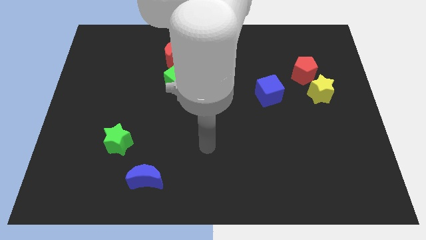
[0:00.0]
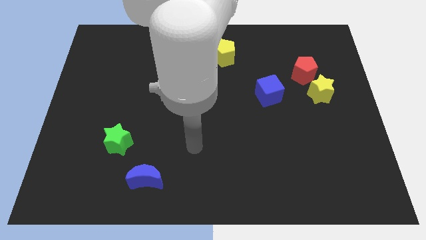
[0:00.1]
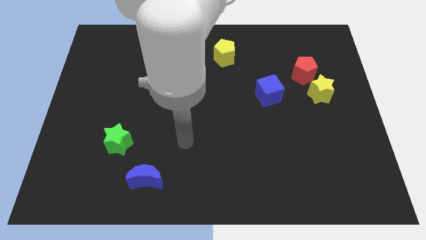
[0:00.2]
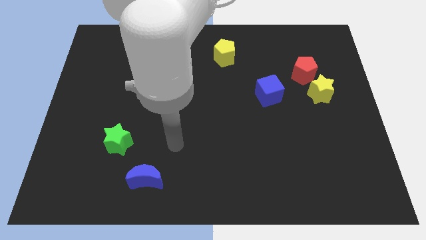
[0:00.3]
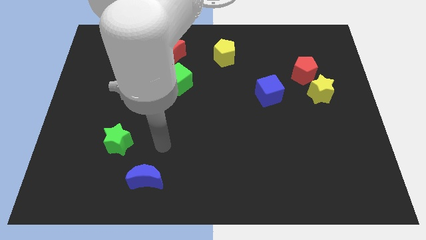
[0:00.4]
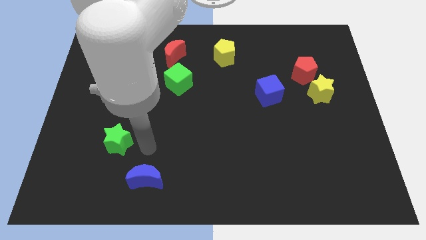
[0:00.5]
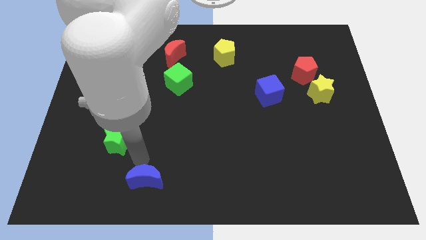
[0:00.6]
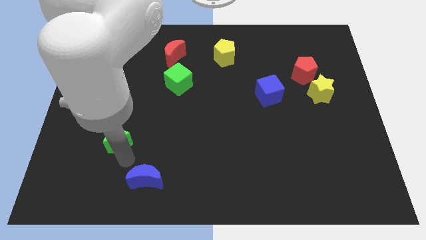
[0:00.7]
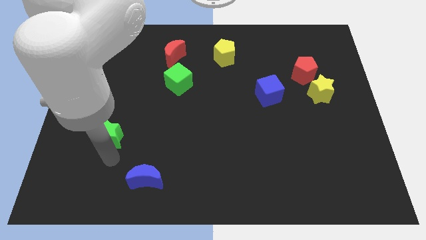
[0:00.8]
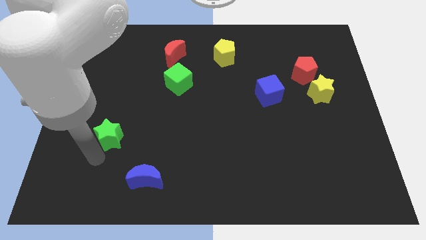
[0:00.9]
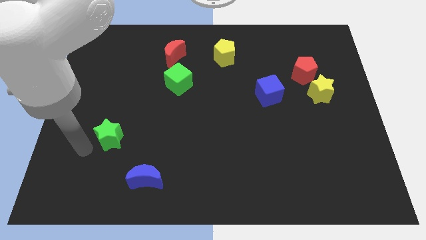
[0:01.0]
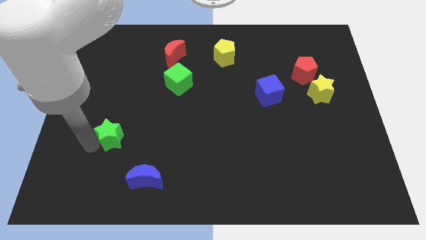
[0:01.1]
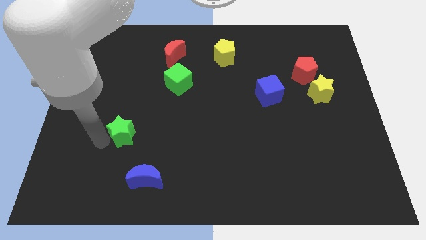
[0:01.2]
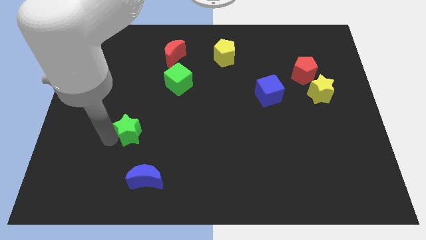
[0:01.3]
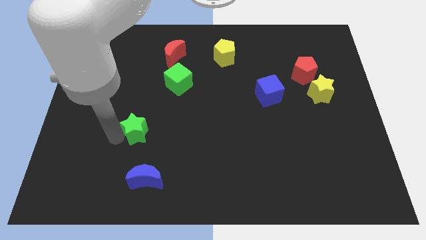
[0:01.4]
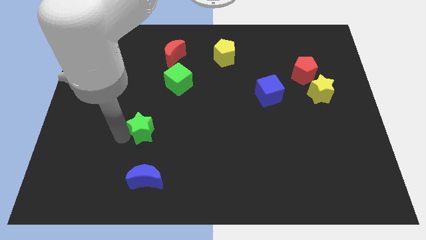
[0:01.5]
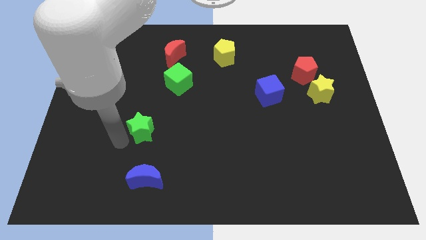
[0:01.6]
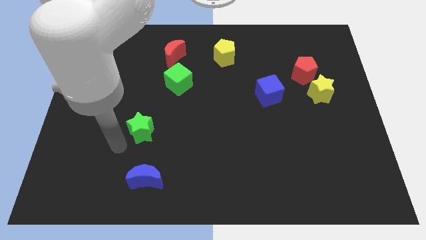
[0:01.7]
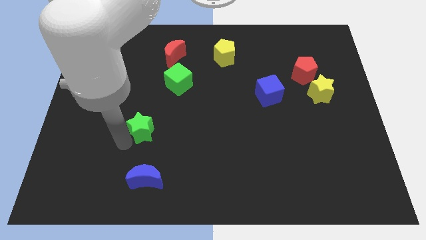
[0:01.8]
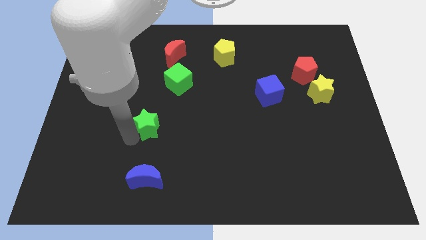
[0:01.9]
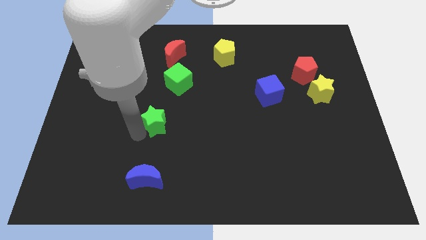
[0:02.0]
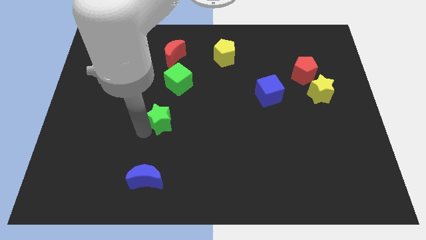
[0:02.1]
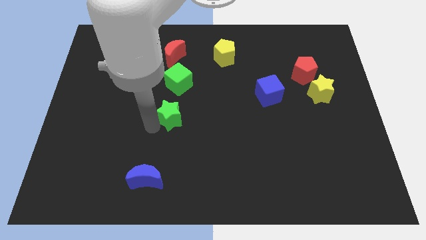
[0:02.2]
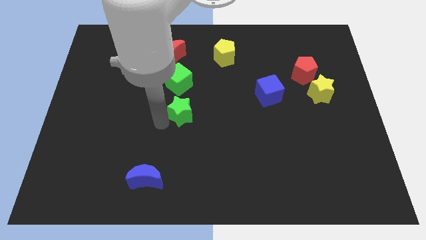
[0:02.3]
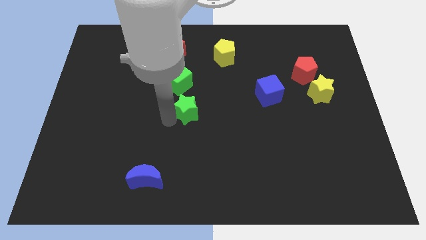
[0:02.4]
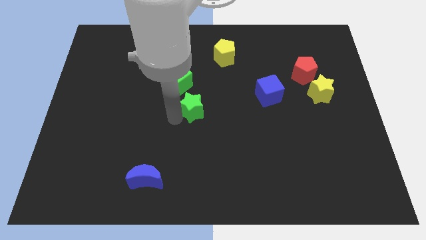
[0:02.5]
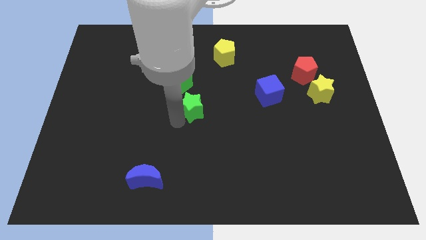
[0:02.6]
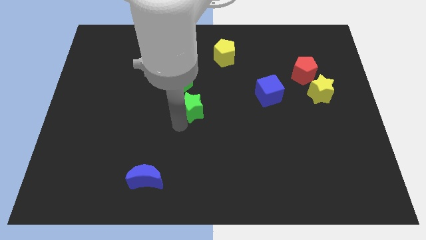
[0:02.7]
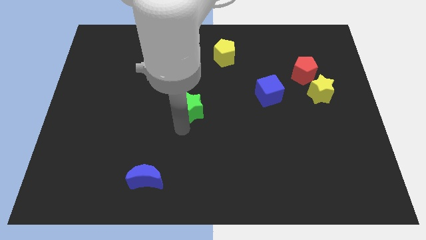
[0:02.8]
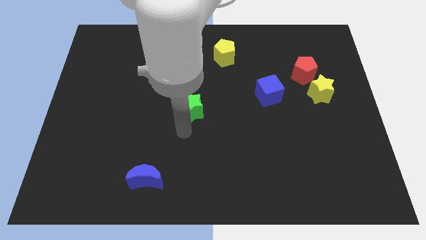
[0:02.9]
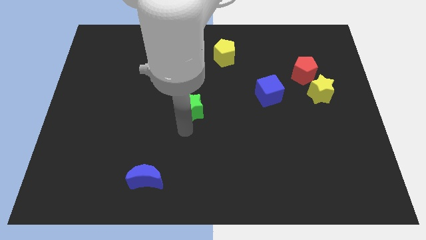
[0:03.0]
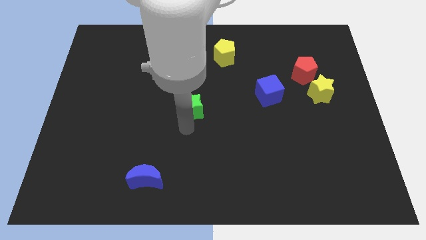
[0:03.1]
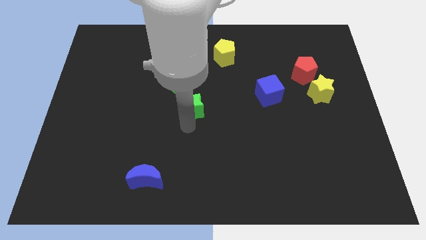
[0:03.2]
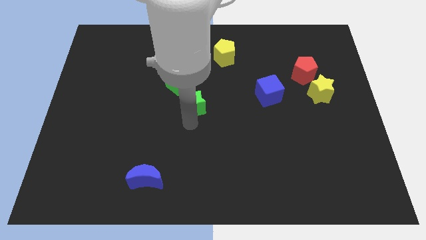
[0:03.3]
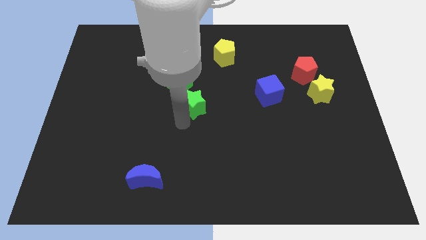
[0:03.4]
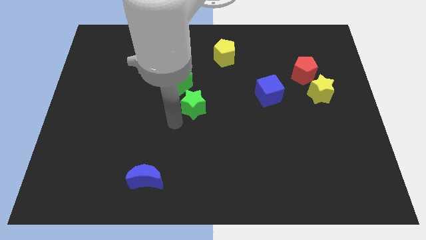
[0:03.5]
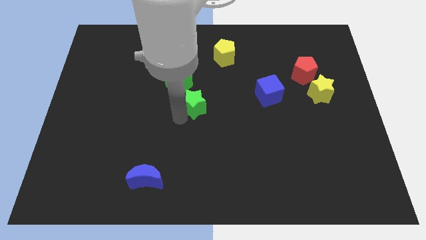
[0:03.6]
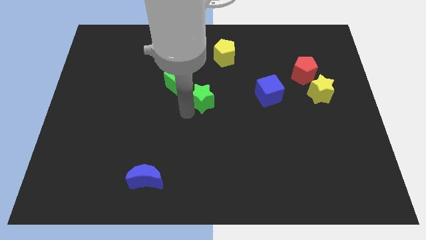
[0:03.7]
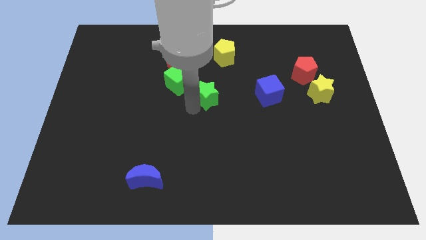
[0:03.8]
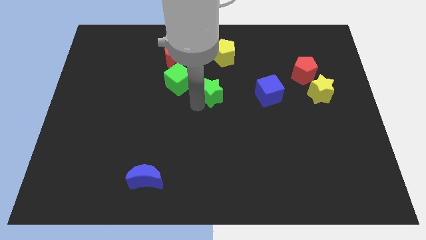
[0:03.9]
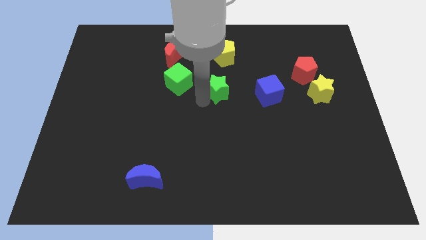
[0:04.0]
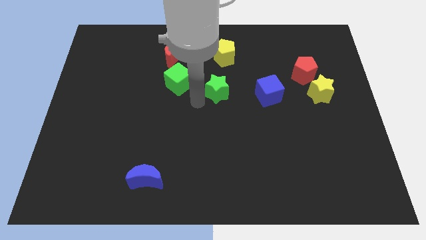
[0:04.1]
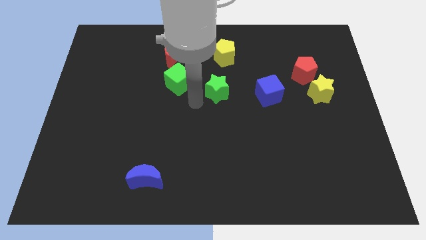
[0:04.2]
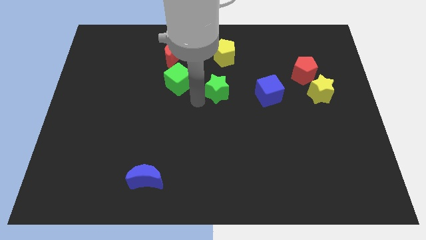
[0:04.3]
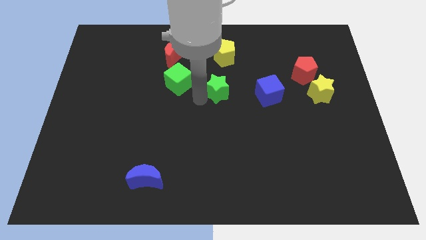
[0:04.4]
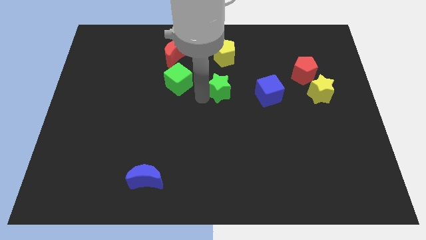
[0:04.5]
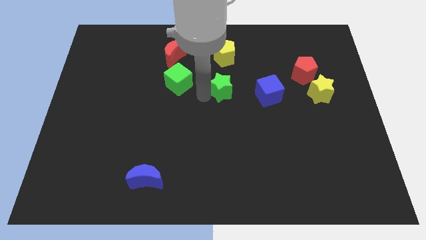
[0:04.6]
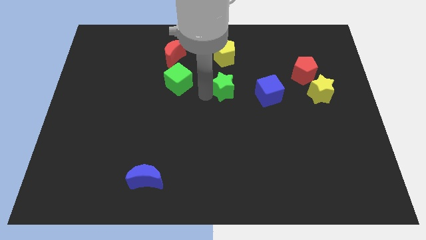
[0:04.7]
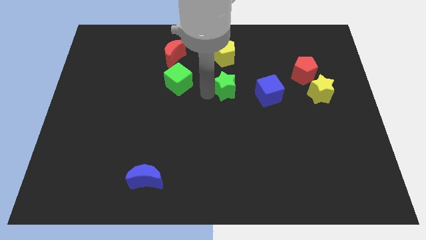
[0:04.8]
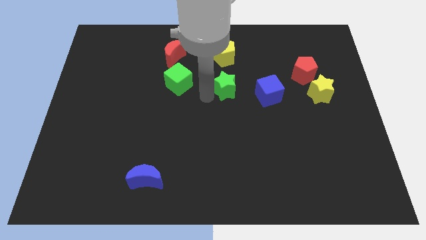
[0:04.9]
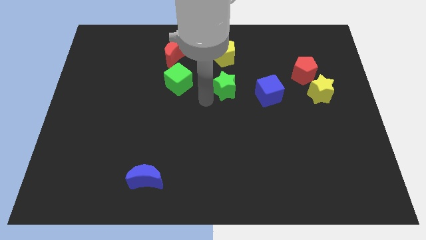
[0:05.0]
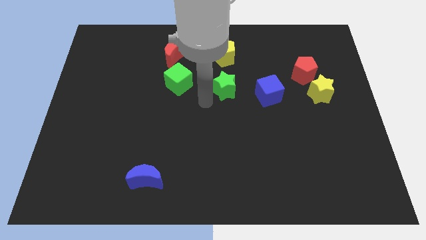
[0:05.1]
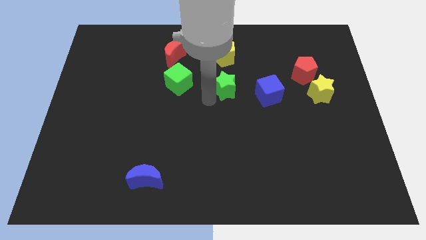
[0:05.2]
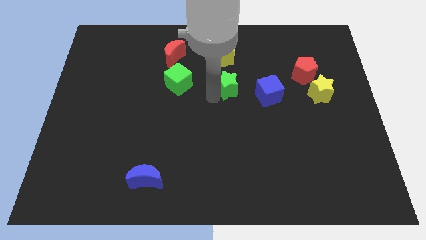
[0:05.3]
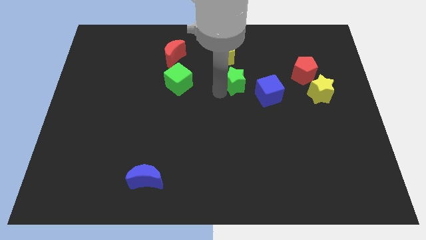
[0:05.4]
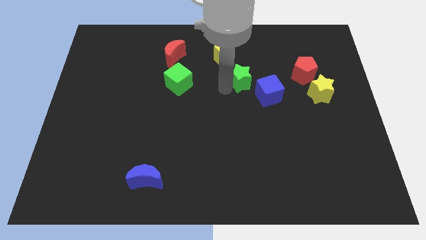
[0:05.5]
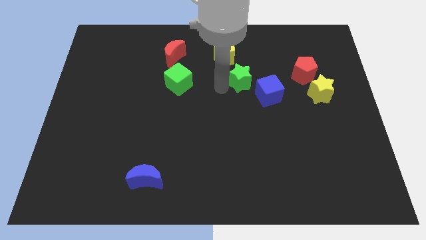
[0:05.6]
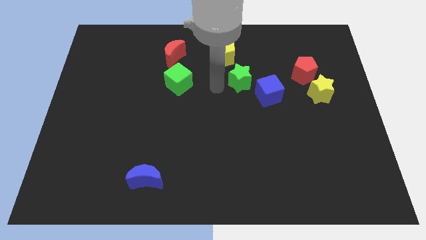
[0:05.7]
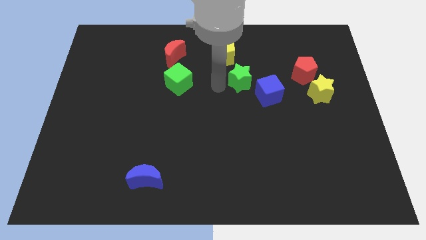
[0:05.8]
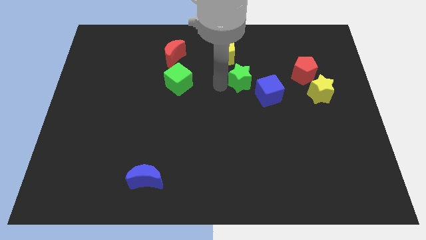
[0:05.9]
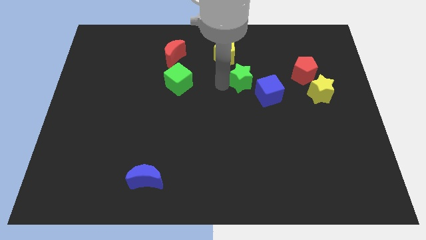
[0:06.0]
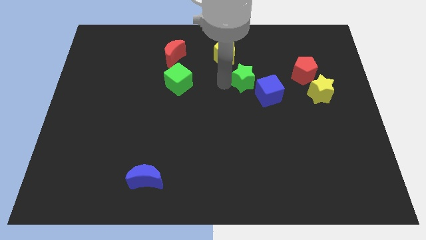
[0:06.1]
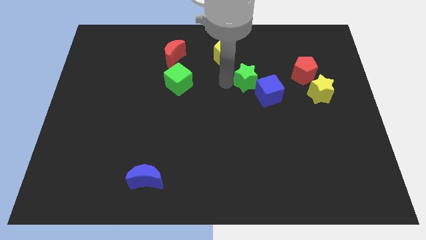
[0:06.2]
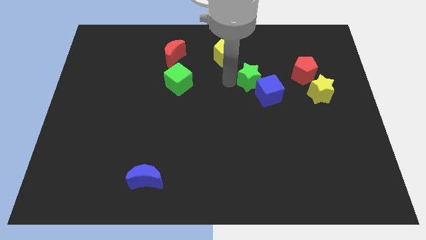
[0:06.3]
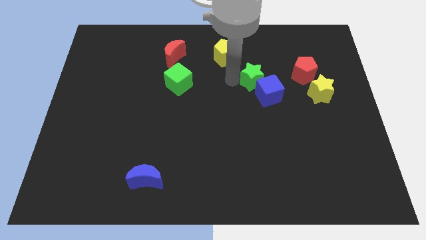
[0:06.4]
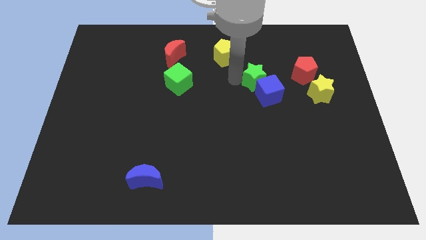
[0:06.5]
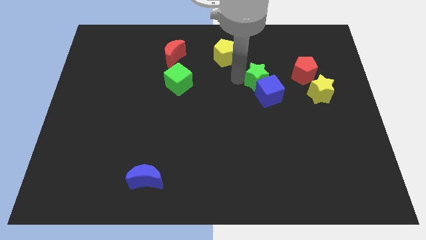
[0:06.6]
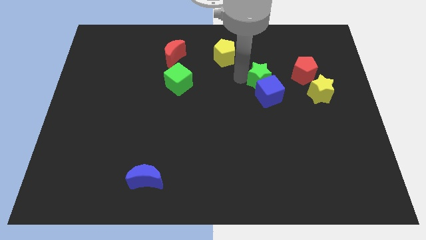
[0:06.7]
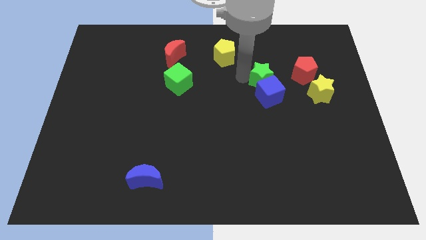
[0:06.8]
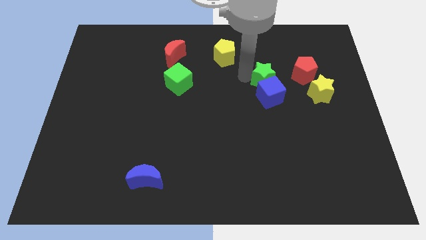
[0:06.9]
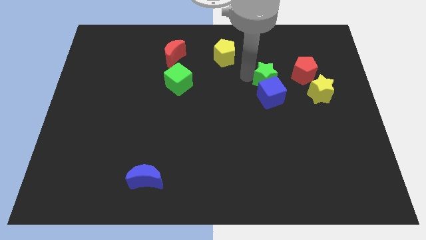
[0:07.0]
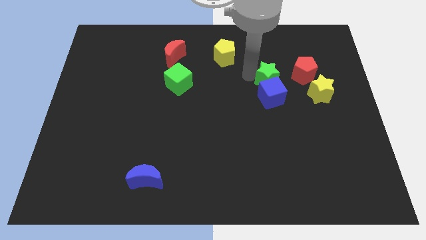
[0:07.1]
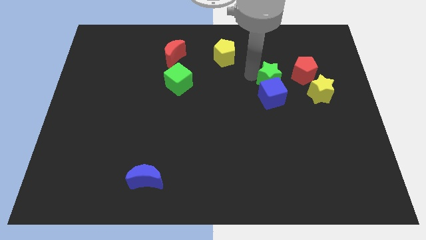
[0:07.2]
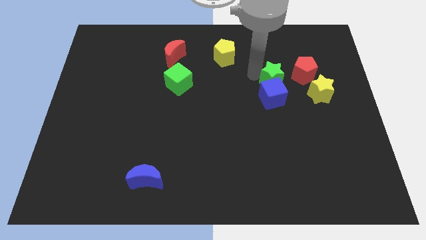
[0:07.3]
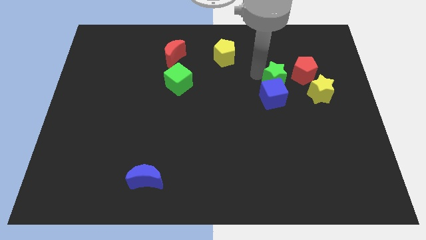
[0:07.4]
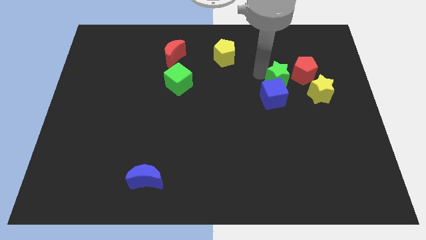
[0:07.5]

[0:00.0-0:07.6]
slide the green star to the top left of the yellow star
